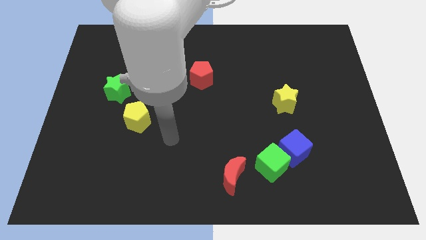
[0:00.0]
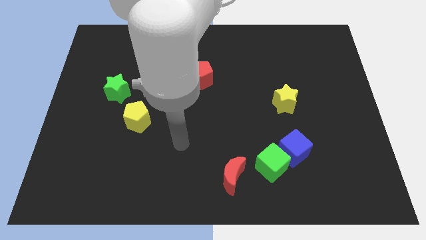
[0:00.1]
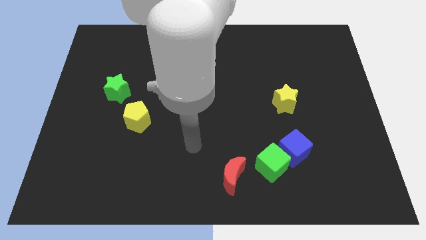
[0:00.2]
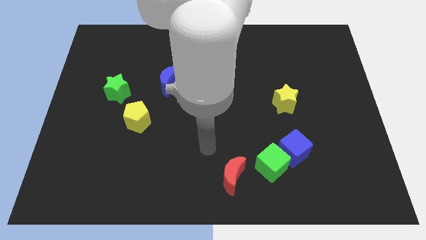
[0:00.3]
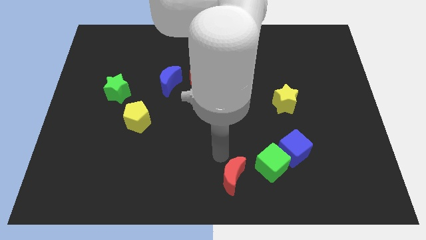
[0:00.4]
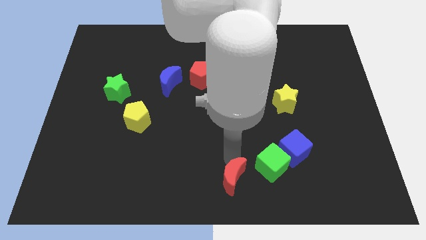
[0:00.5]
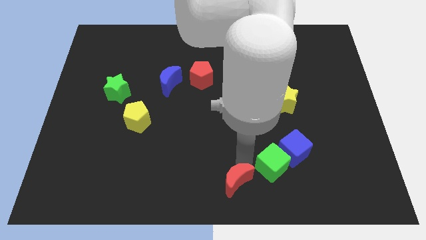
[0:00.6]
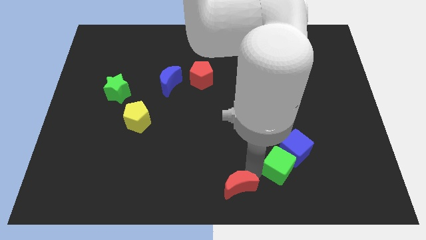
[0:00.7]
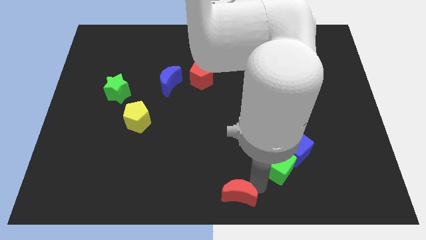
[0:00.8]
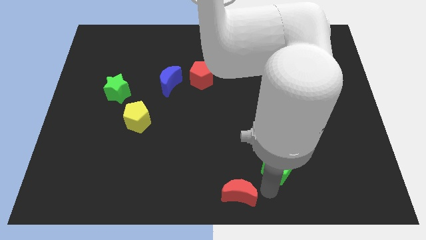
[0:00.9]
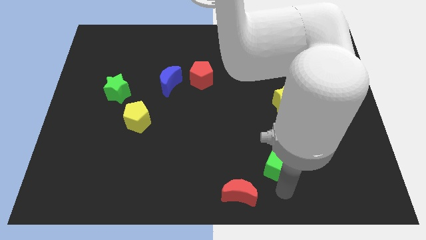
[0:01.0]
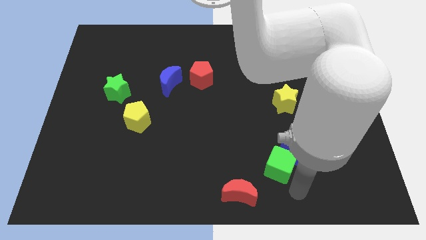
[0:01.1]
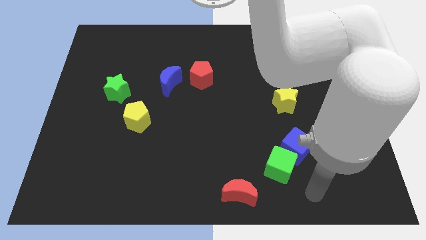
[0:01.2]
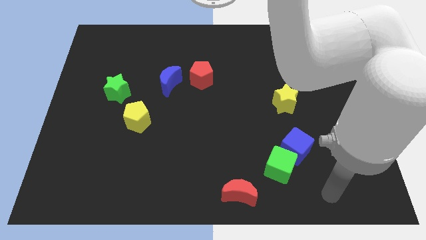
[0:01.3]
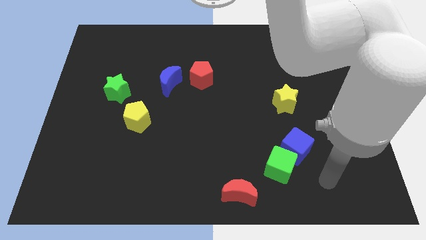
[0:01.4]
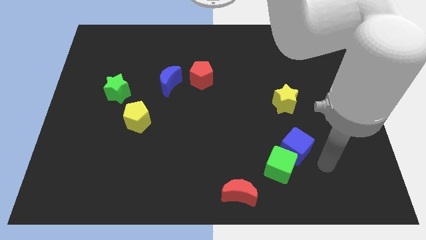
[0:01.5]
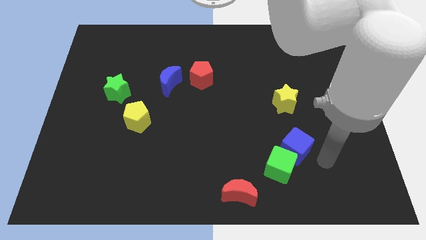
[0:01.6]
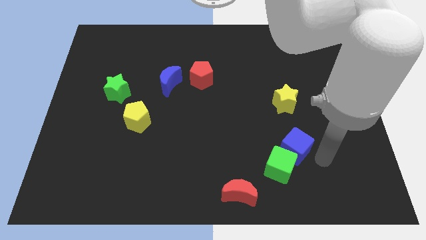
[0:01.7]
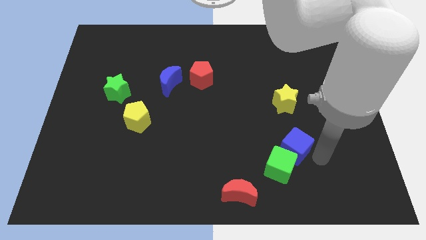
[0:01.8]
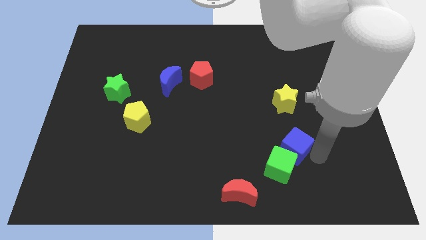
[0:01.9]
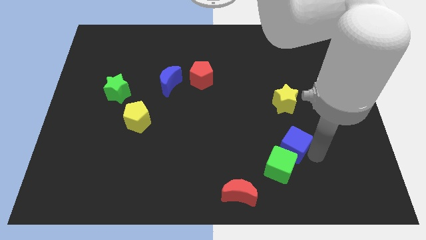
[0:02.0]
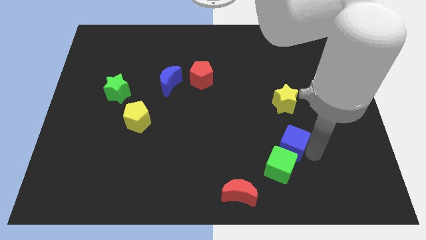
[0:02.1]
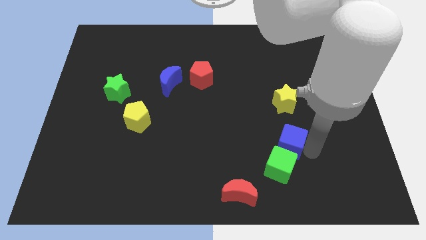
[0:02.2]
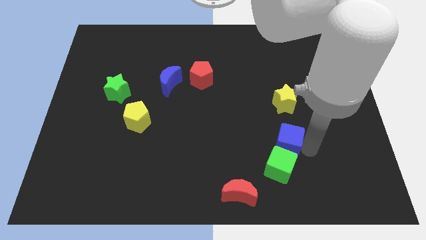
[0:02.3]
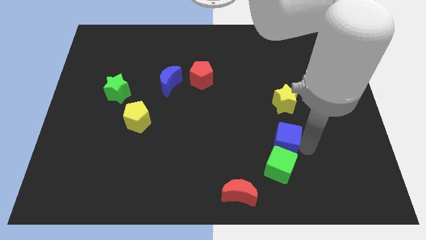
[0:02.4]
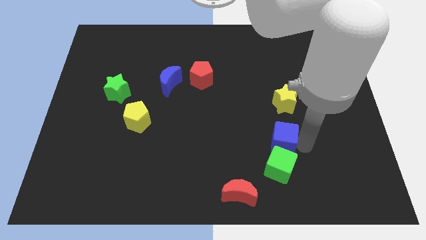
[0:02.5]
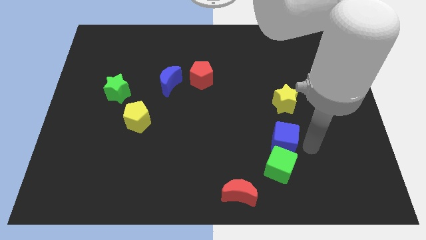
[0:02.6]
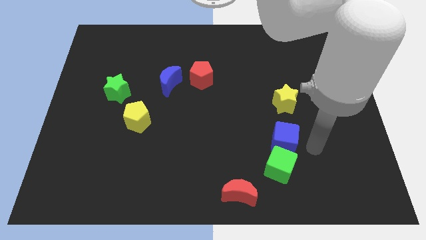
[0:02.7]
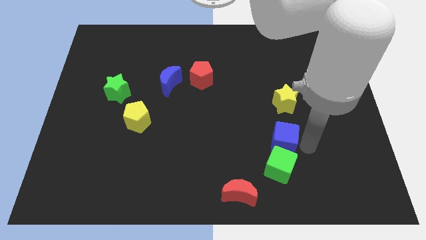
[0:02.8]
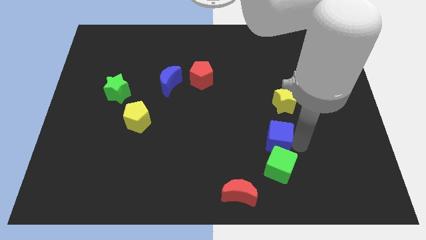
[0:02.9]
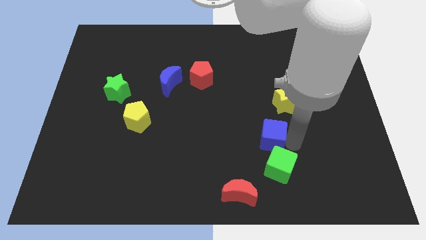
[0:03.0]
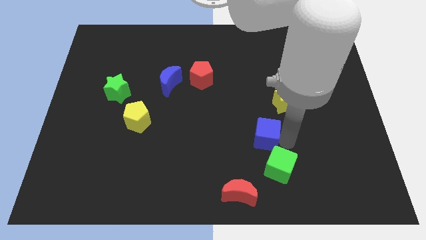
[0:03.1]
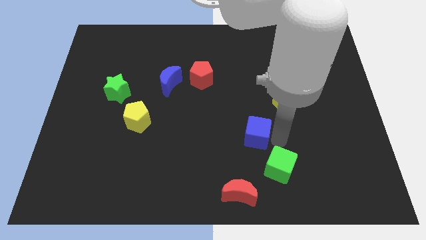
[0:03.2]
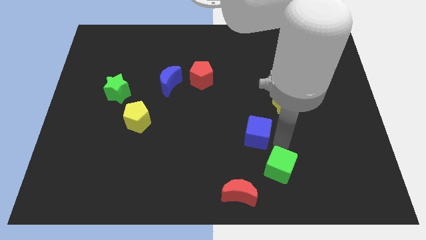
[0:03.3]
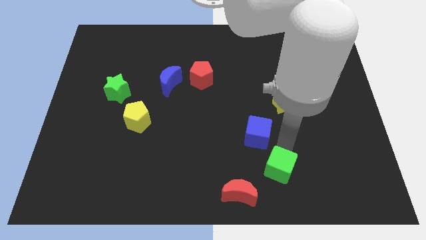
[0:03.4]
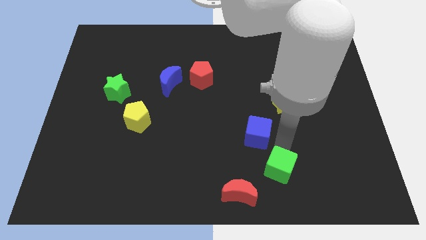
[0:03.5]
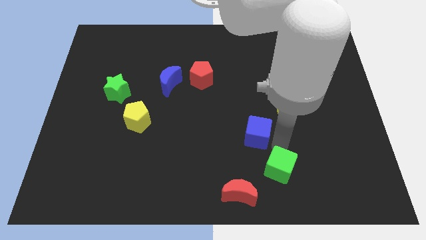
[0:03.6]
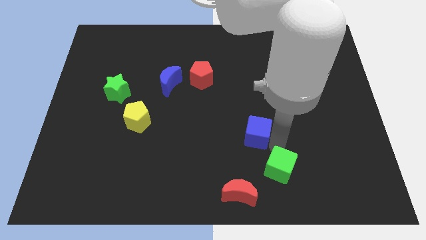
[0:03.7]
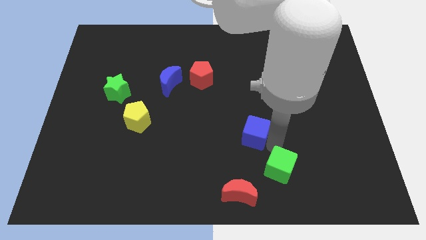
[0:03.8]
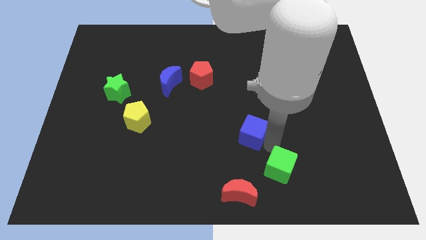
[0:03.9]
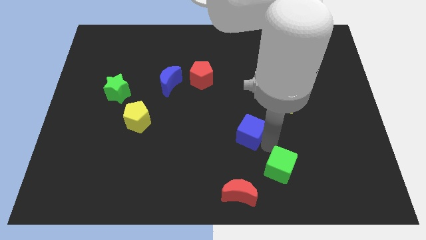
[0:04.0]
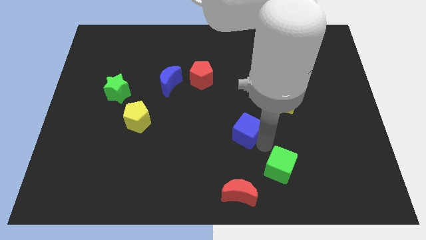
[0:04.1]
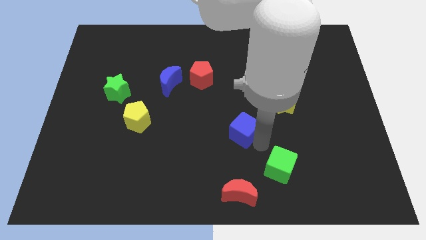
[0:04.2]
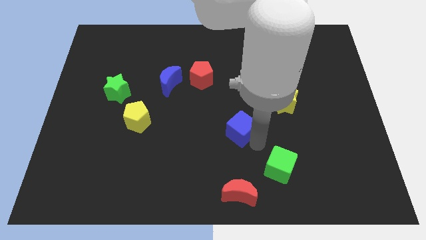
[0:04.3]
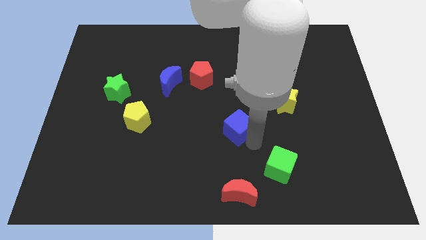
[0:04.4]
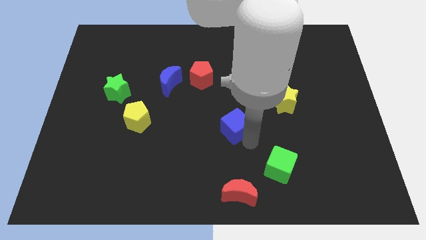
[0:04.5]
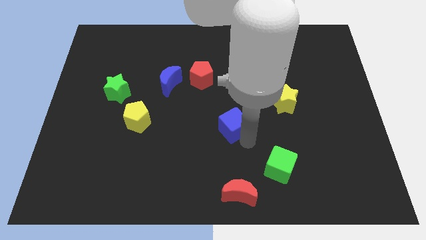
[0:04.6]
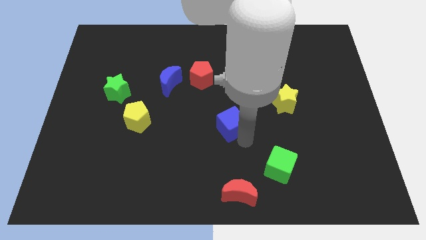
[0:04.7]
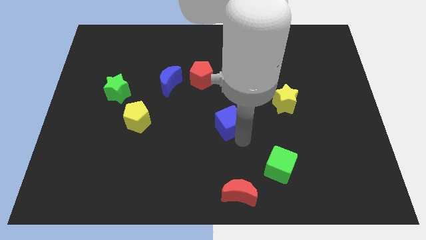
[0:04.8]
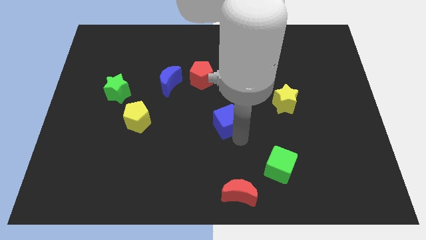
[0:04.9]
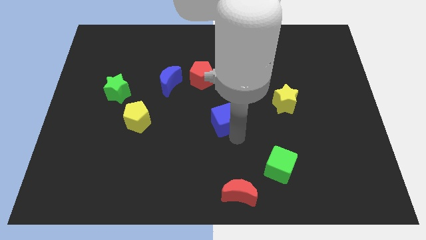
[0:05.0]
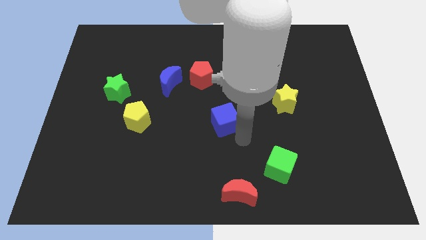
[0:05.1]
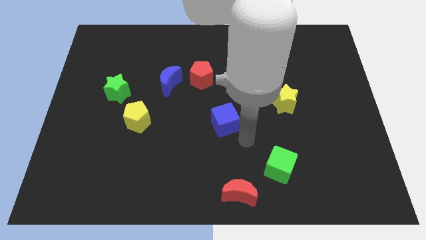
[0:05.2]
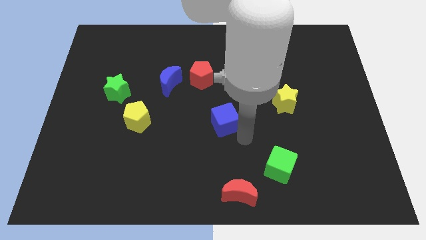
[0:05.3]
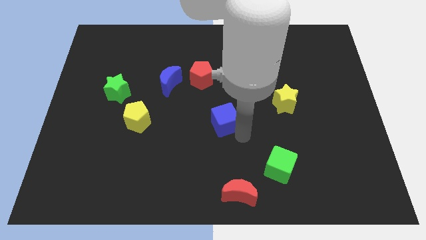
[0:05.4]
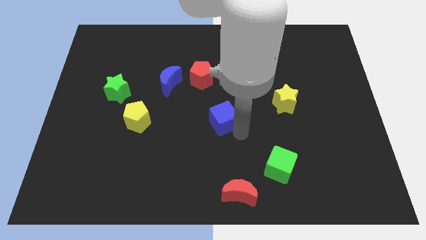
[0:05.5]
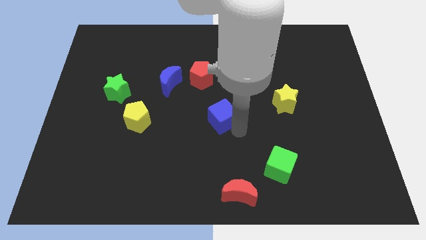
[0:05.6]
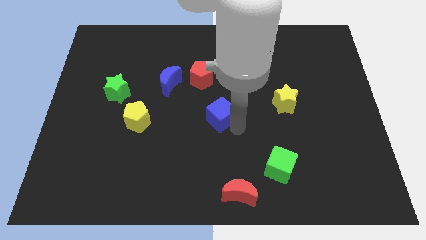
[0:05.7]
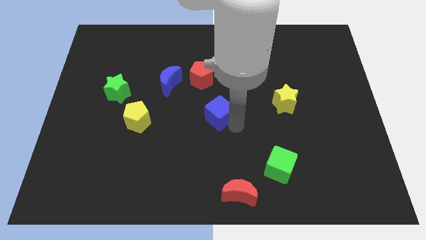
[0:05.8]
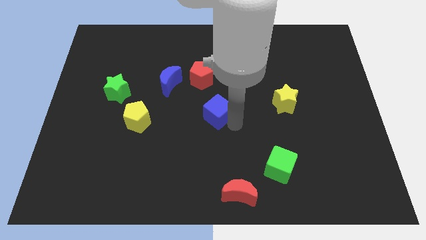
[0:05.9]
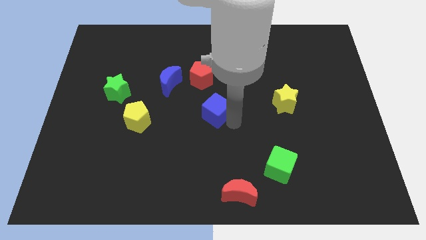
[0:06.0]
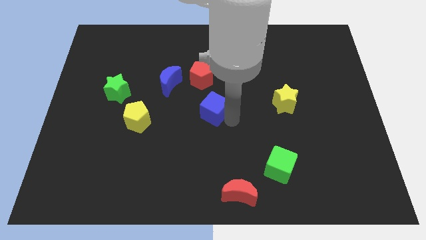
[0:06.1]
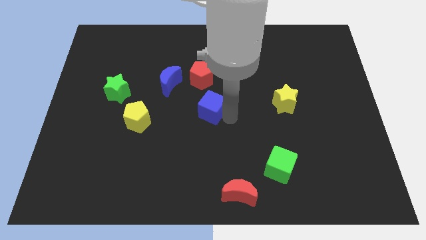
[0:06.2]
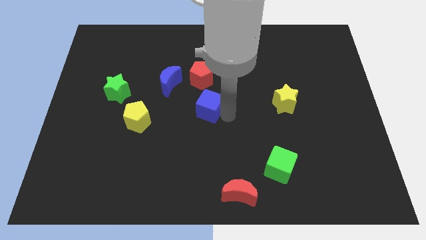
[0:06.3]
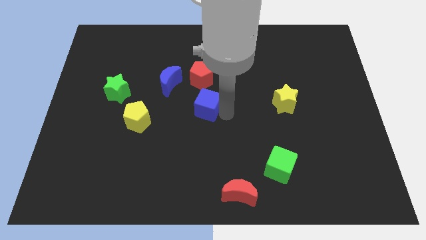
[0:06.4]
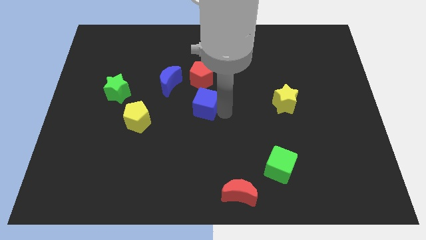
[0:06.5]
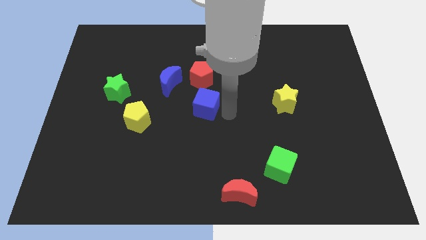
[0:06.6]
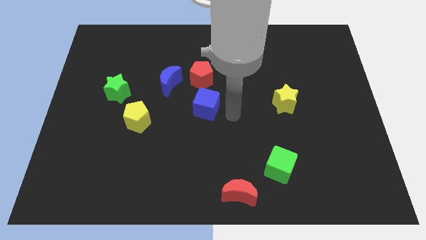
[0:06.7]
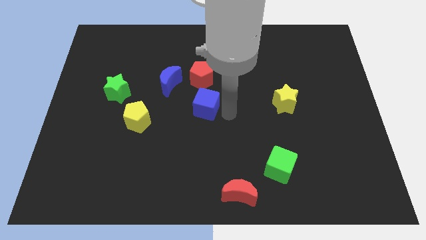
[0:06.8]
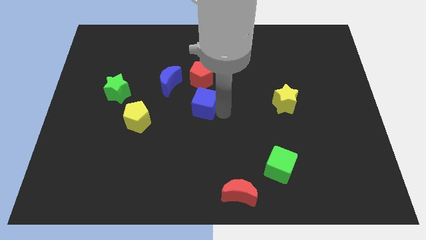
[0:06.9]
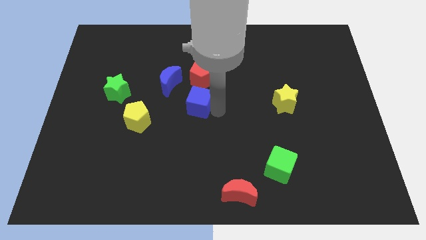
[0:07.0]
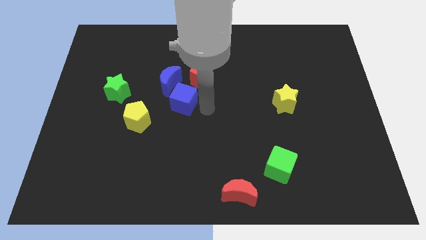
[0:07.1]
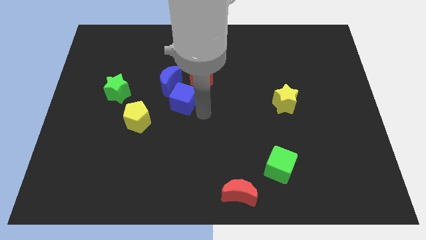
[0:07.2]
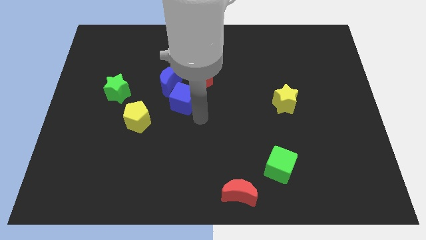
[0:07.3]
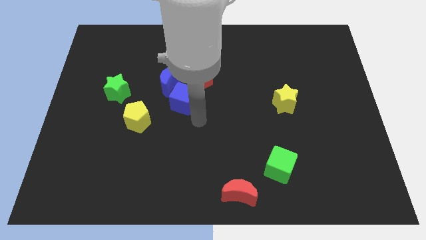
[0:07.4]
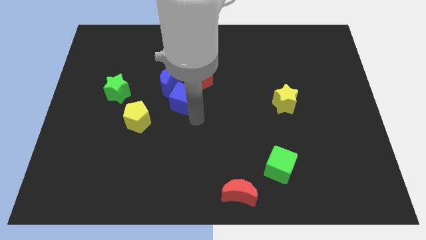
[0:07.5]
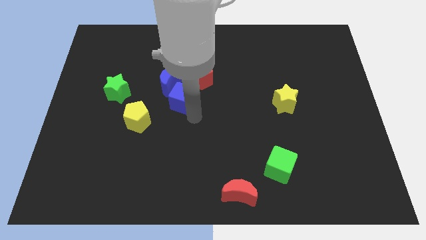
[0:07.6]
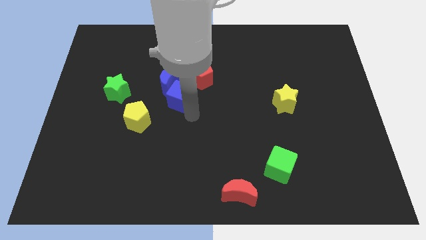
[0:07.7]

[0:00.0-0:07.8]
slide the blue cube next to the blue moon
